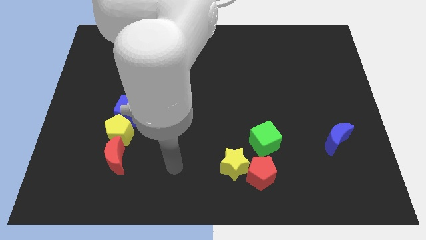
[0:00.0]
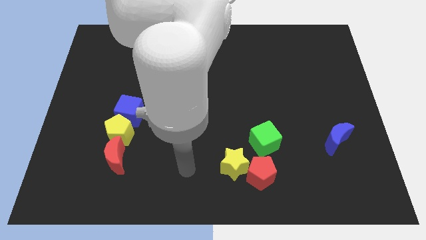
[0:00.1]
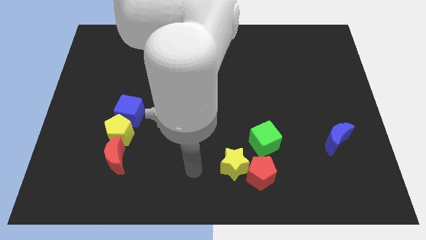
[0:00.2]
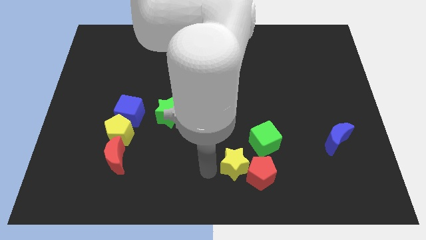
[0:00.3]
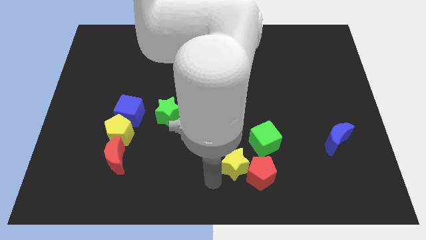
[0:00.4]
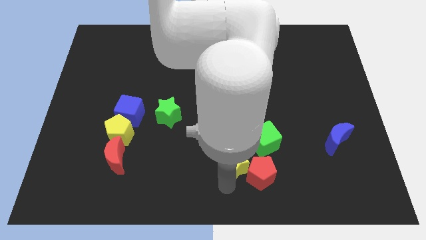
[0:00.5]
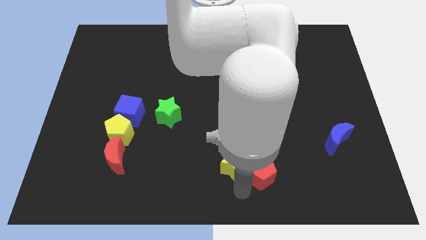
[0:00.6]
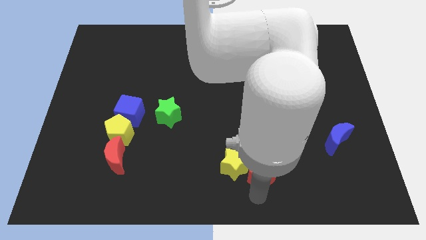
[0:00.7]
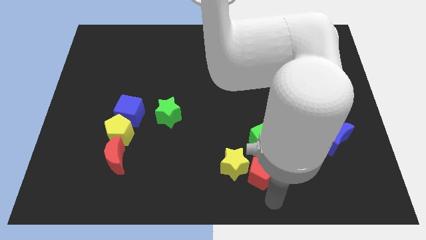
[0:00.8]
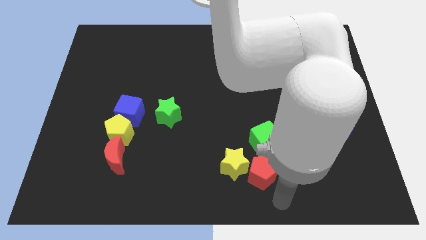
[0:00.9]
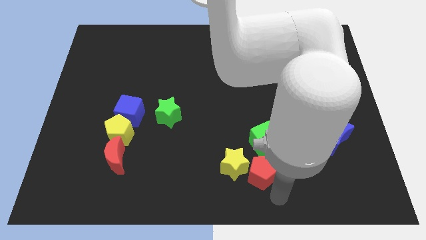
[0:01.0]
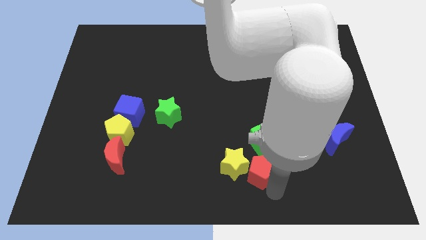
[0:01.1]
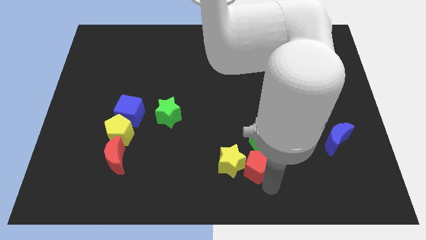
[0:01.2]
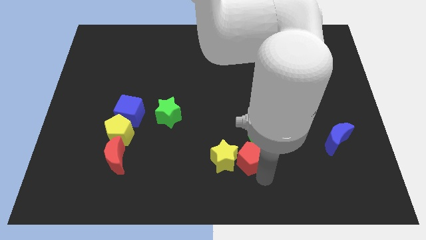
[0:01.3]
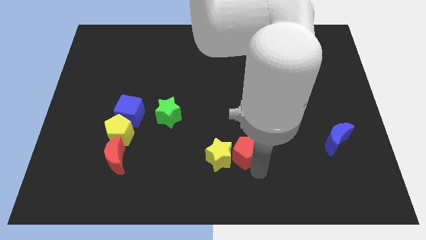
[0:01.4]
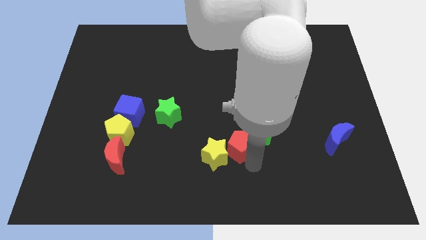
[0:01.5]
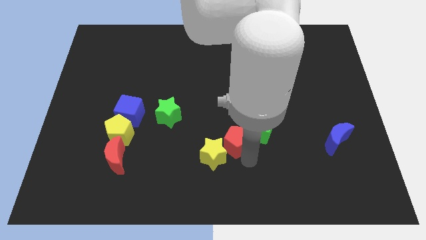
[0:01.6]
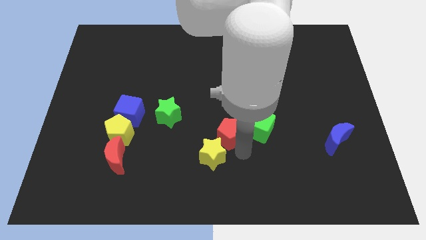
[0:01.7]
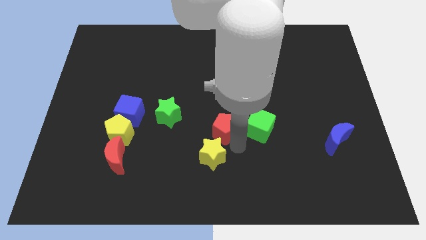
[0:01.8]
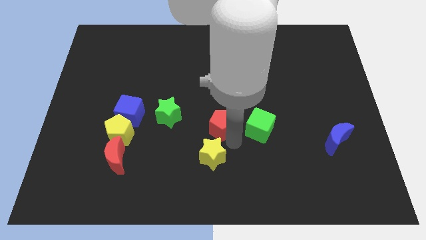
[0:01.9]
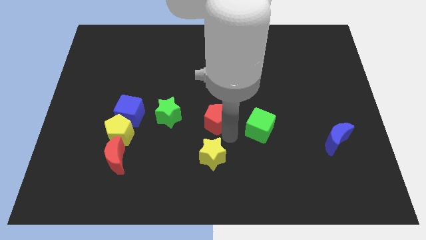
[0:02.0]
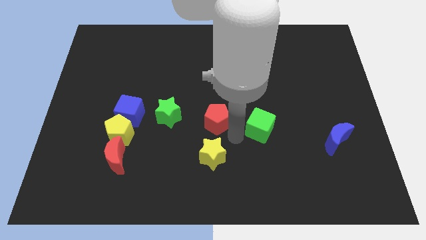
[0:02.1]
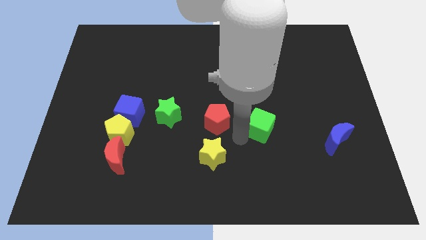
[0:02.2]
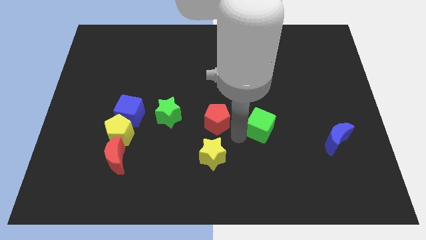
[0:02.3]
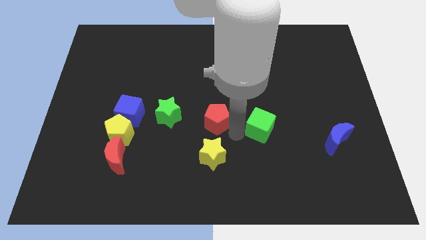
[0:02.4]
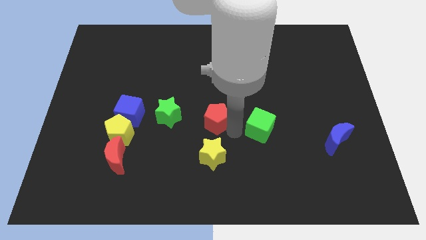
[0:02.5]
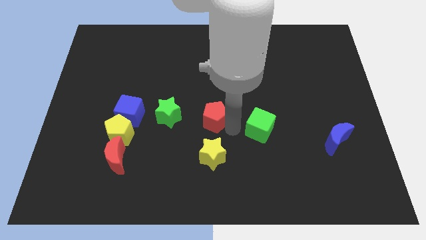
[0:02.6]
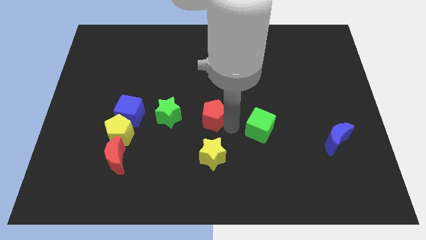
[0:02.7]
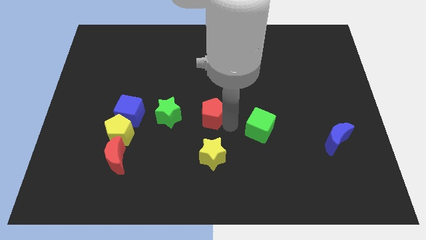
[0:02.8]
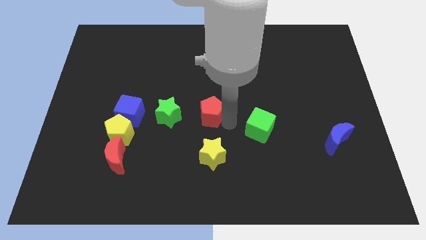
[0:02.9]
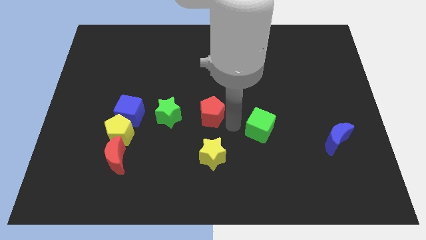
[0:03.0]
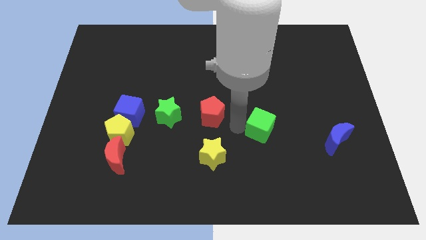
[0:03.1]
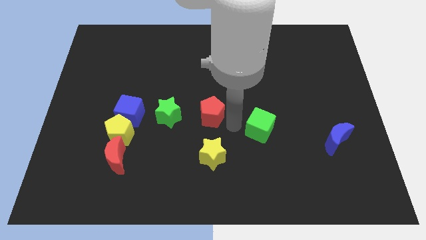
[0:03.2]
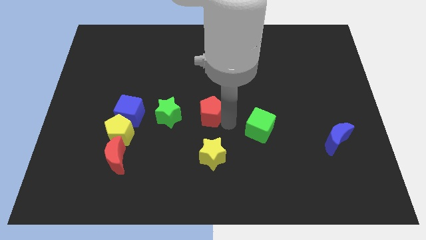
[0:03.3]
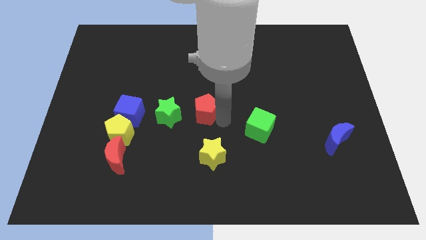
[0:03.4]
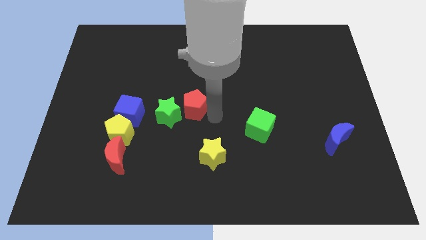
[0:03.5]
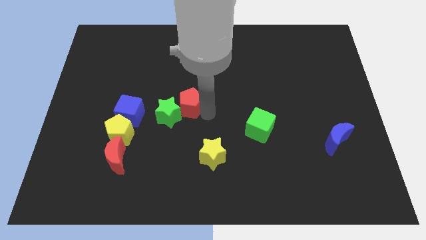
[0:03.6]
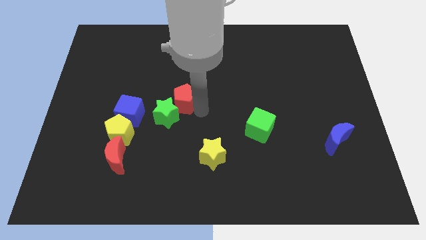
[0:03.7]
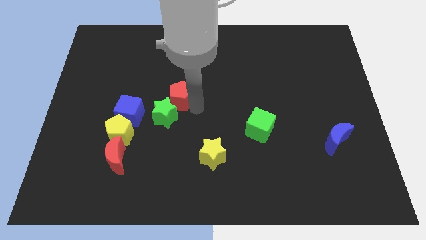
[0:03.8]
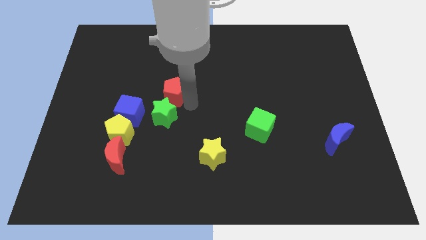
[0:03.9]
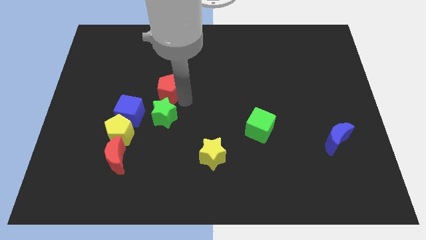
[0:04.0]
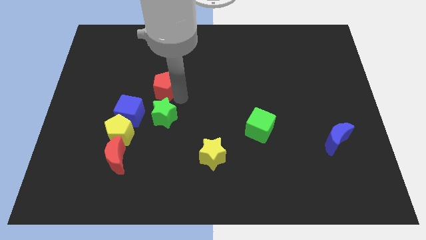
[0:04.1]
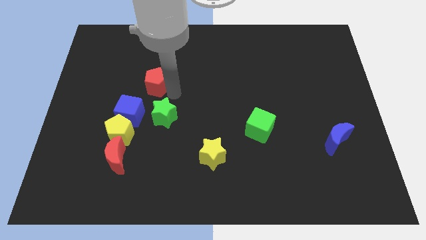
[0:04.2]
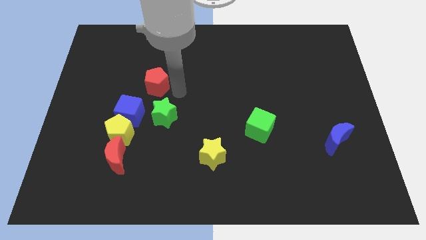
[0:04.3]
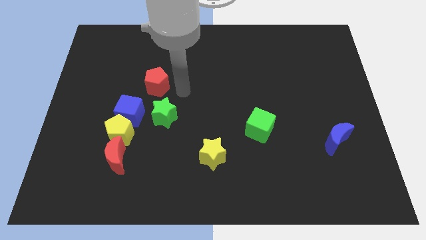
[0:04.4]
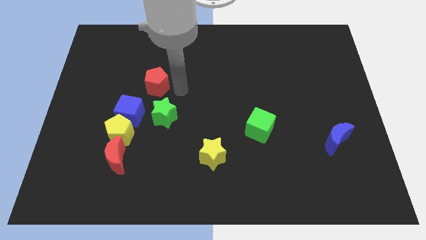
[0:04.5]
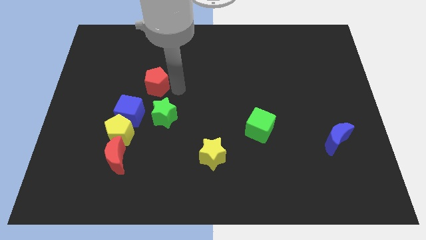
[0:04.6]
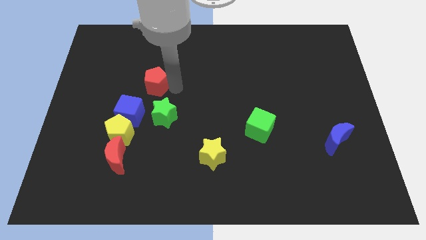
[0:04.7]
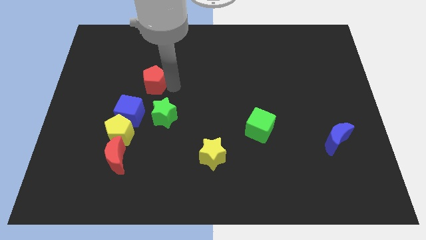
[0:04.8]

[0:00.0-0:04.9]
slide the red pentagon to the top of the blue cube

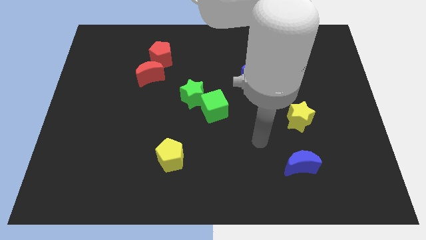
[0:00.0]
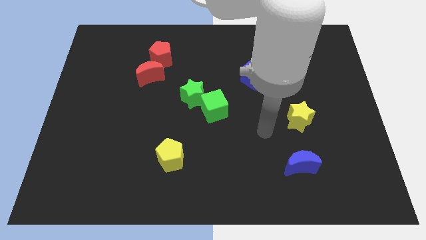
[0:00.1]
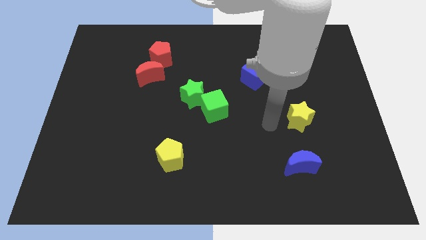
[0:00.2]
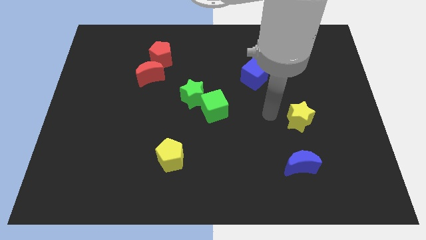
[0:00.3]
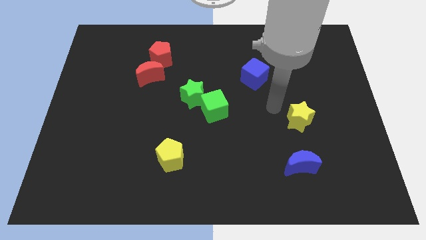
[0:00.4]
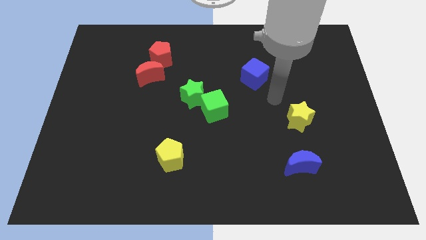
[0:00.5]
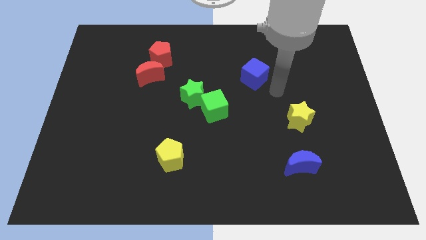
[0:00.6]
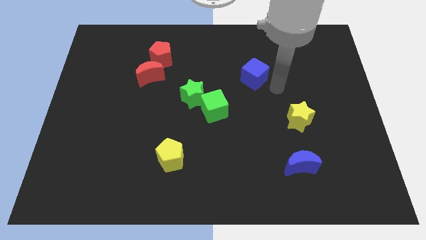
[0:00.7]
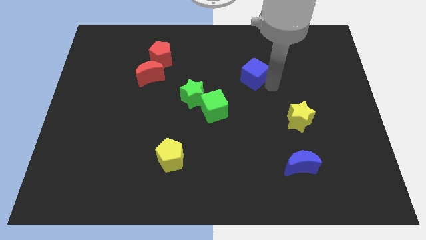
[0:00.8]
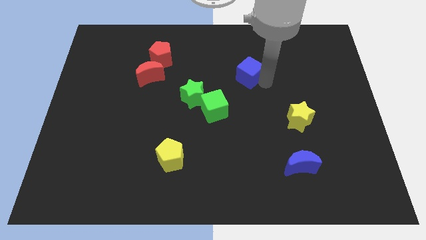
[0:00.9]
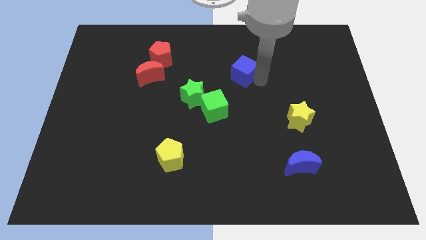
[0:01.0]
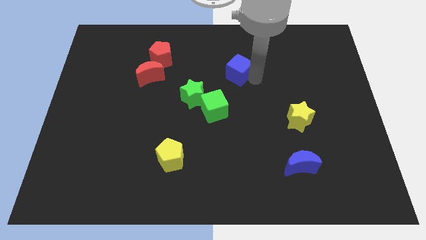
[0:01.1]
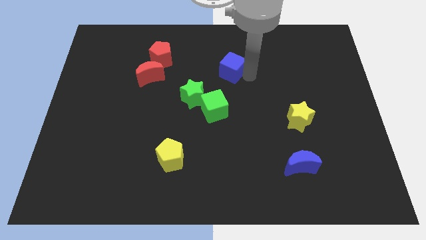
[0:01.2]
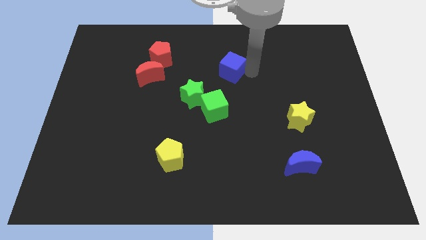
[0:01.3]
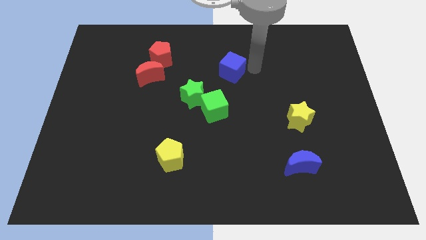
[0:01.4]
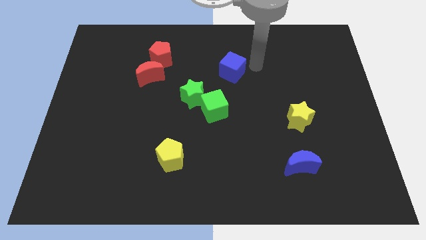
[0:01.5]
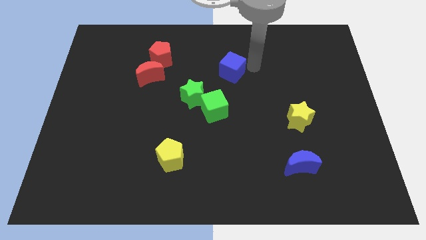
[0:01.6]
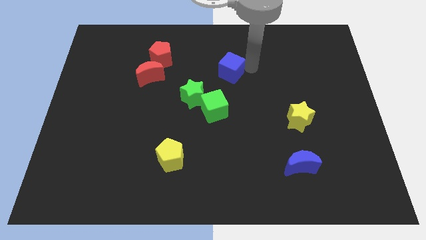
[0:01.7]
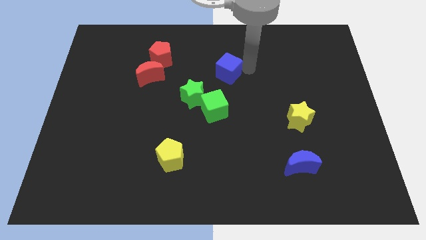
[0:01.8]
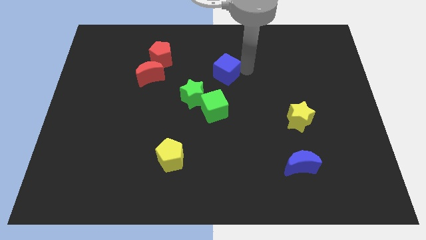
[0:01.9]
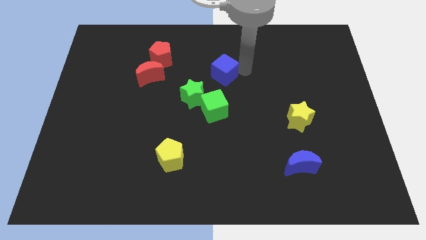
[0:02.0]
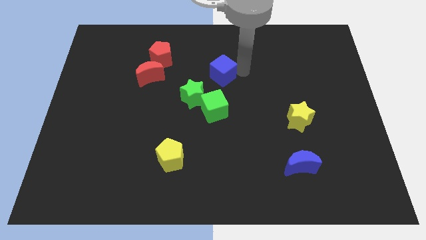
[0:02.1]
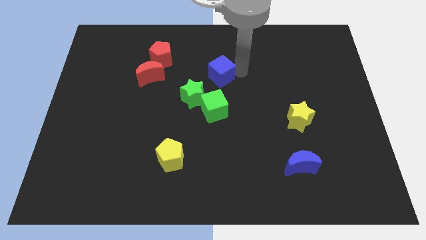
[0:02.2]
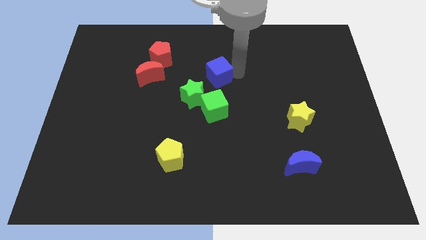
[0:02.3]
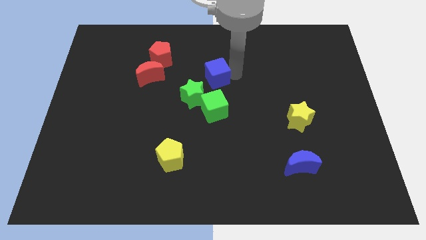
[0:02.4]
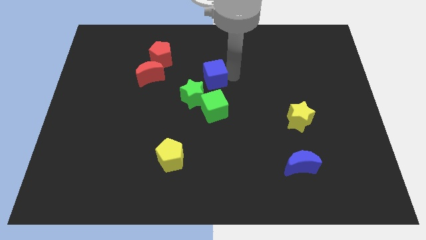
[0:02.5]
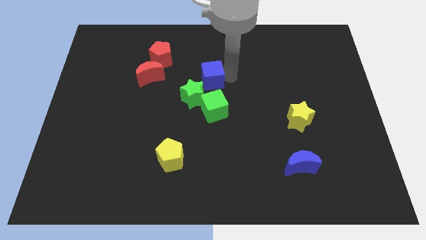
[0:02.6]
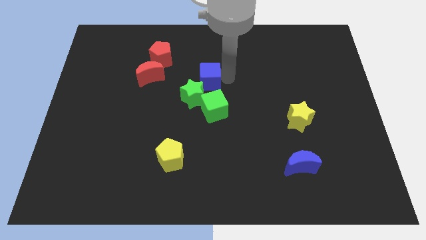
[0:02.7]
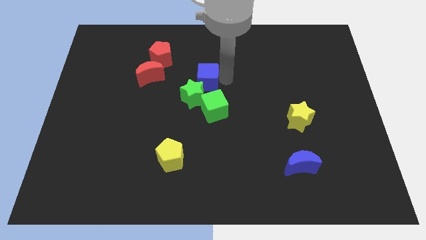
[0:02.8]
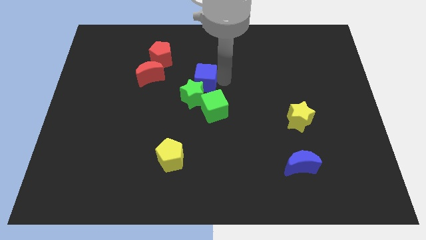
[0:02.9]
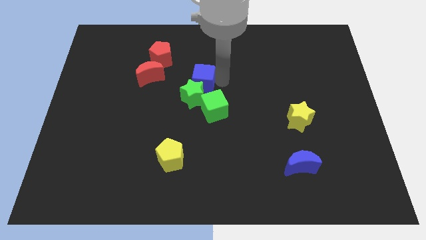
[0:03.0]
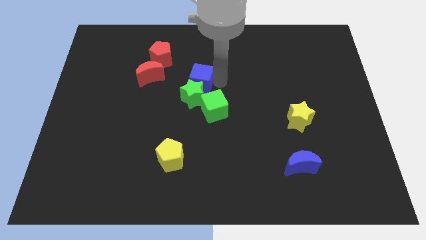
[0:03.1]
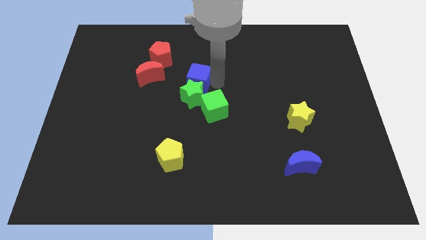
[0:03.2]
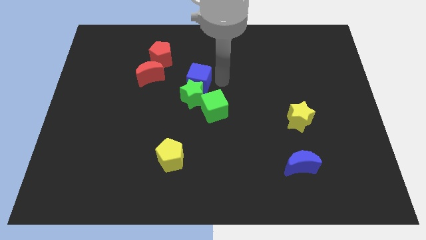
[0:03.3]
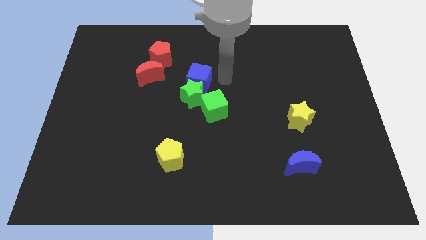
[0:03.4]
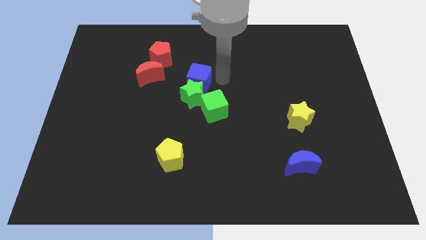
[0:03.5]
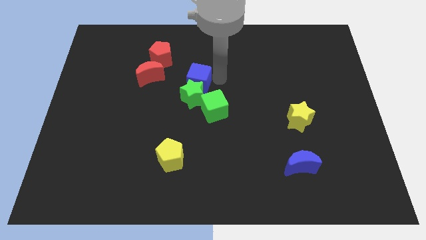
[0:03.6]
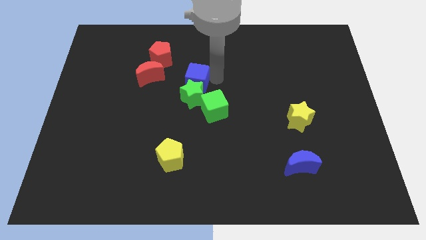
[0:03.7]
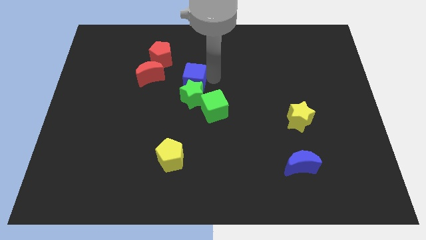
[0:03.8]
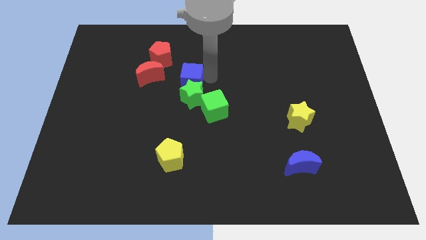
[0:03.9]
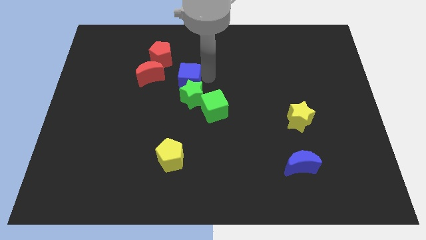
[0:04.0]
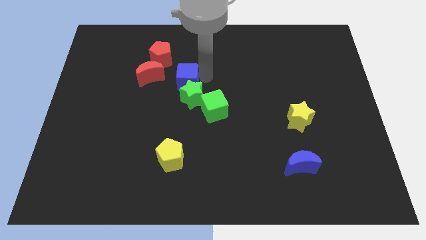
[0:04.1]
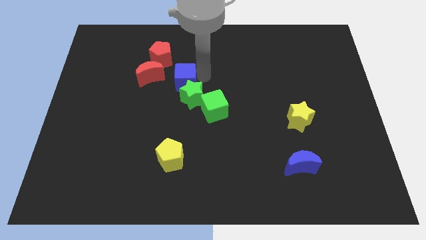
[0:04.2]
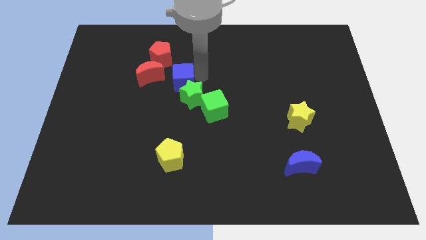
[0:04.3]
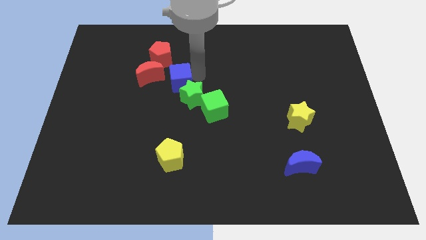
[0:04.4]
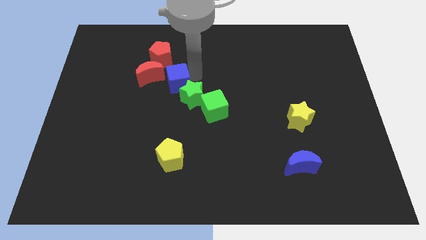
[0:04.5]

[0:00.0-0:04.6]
put the blue cube to the bottom side of the red pentagon
